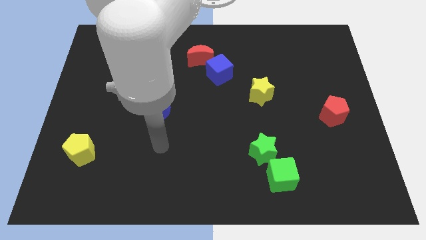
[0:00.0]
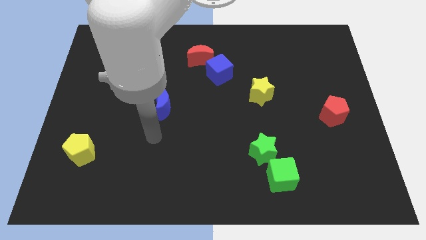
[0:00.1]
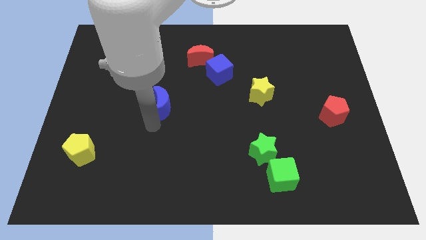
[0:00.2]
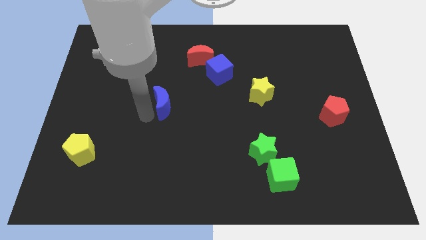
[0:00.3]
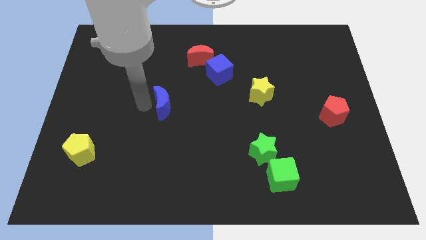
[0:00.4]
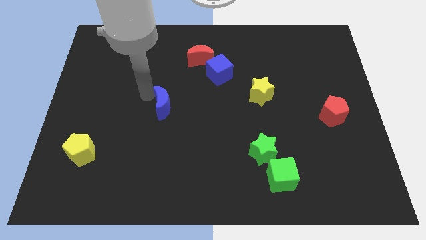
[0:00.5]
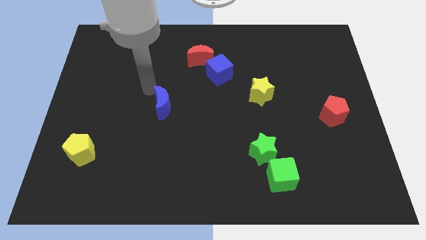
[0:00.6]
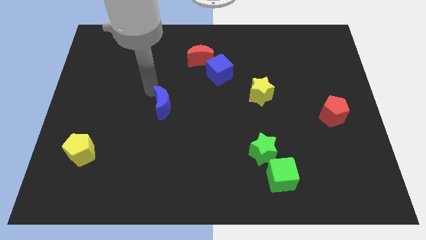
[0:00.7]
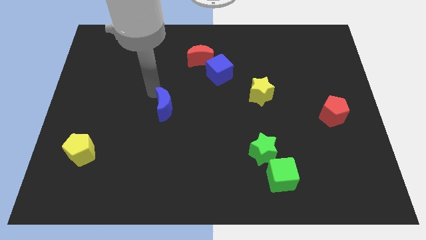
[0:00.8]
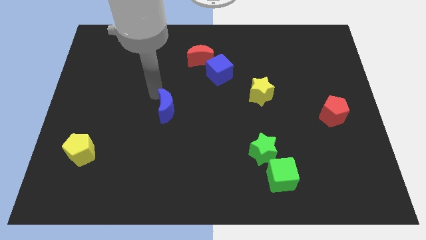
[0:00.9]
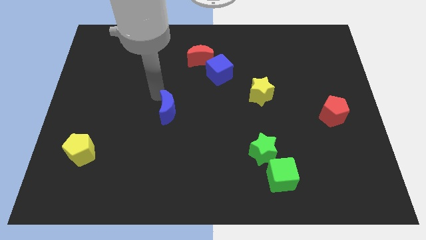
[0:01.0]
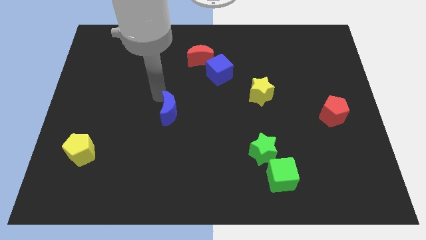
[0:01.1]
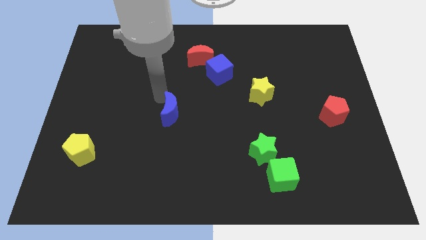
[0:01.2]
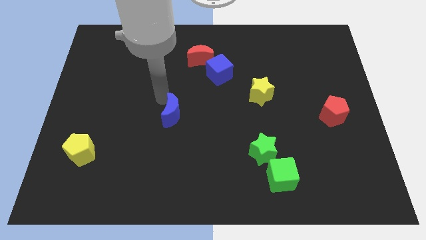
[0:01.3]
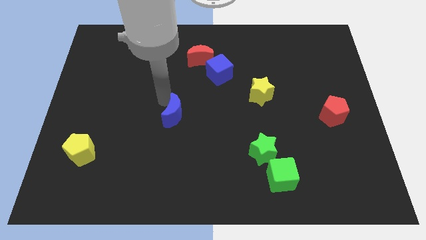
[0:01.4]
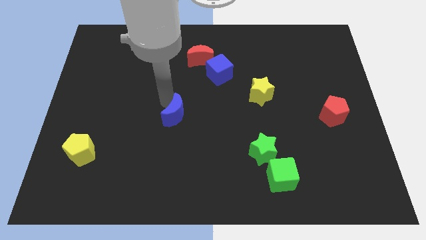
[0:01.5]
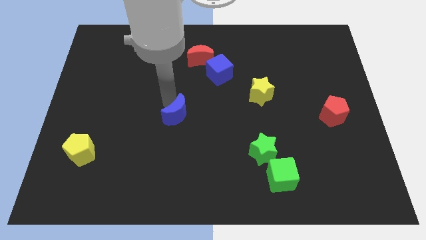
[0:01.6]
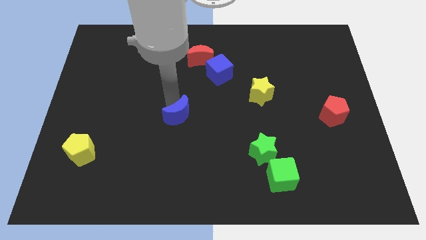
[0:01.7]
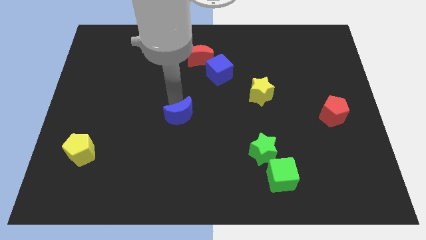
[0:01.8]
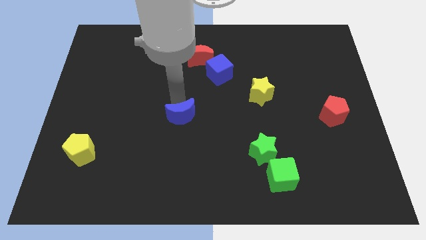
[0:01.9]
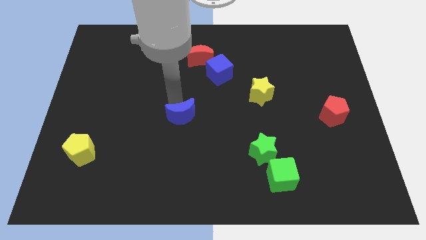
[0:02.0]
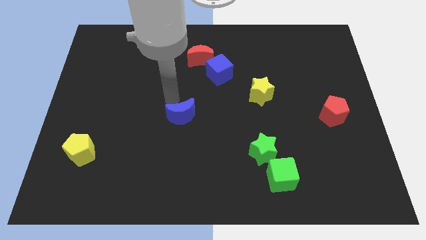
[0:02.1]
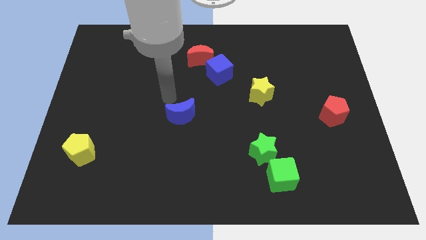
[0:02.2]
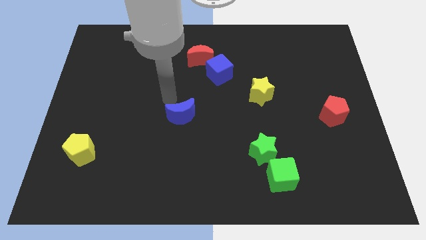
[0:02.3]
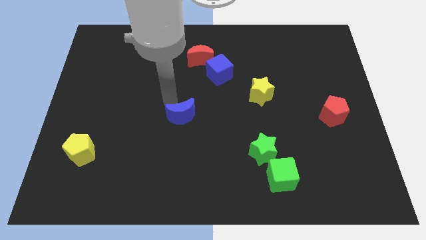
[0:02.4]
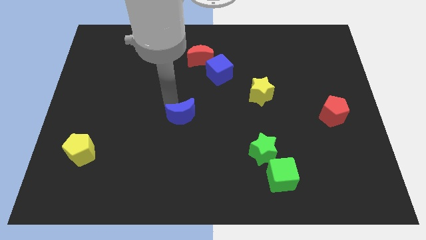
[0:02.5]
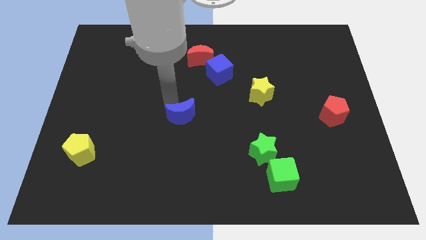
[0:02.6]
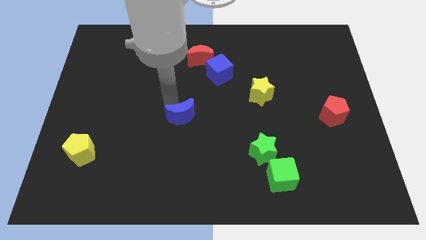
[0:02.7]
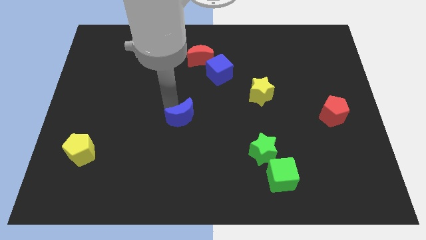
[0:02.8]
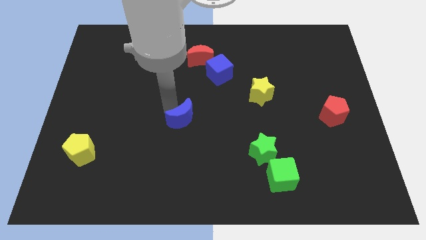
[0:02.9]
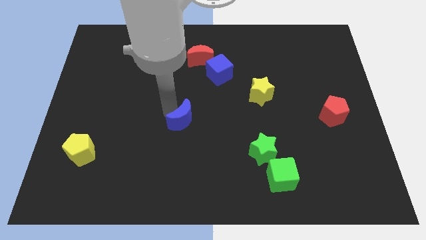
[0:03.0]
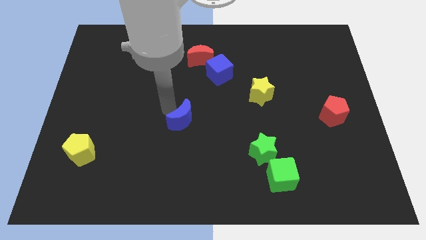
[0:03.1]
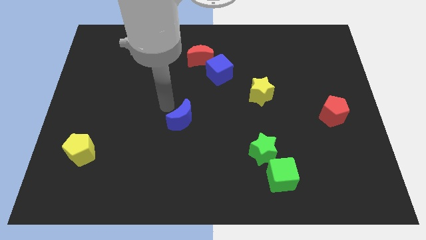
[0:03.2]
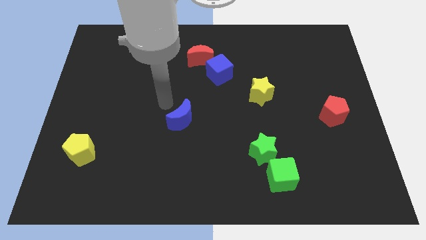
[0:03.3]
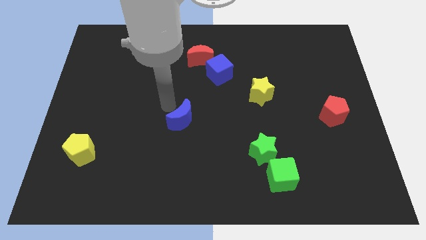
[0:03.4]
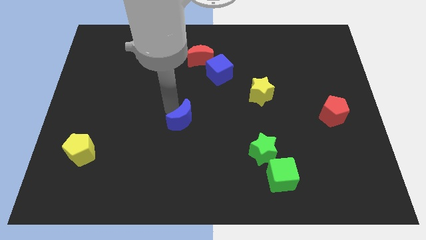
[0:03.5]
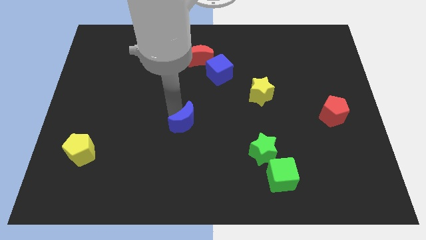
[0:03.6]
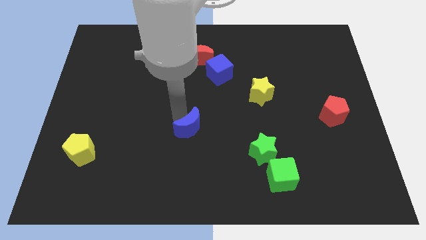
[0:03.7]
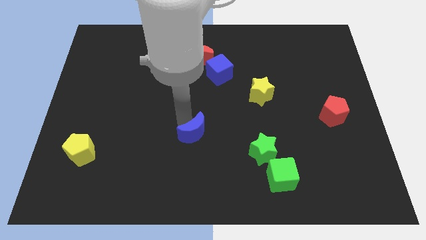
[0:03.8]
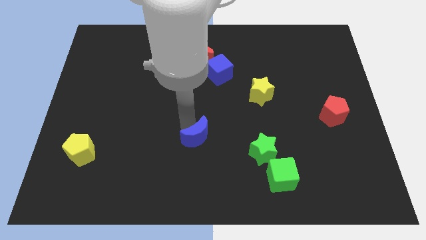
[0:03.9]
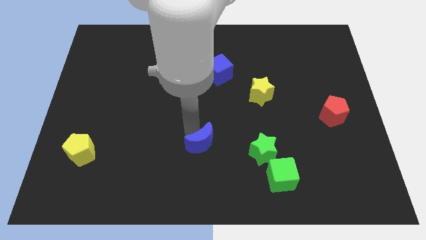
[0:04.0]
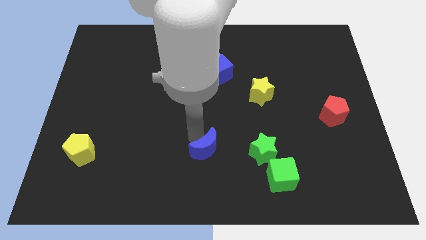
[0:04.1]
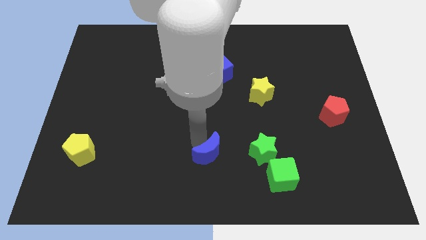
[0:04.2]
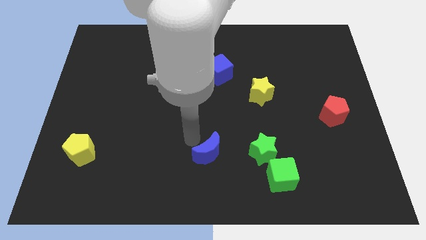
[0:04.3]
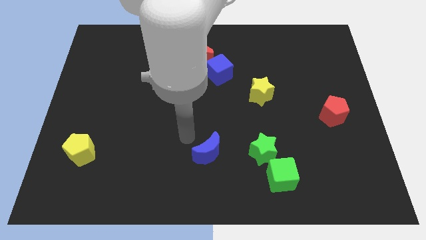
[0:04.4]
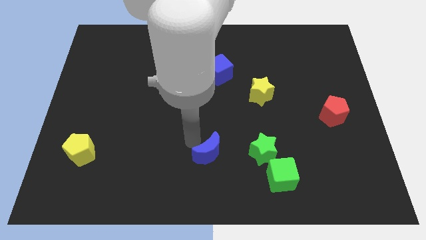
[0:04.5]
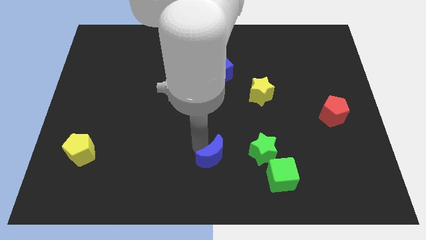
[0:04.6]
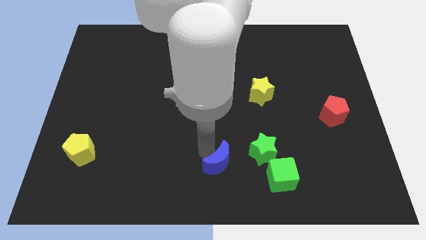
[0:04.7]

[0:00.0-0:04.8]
push the blue moon diagonally down and to the left of the green star

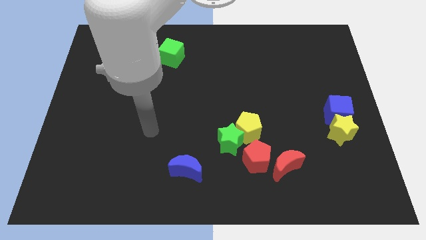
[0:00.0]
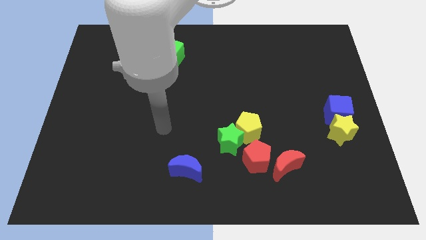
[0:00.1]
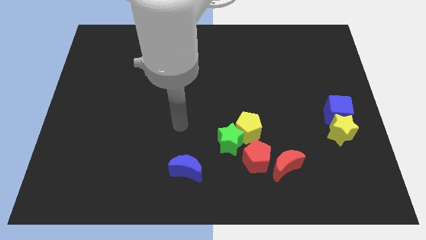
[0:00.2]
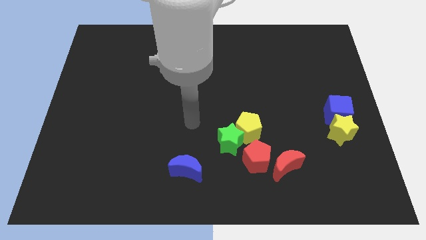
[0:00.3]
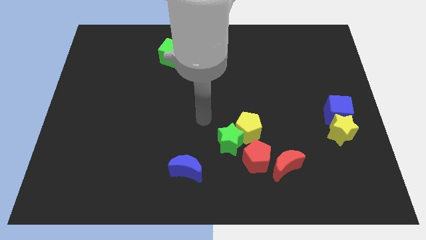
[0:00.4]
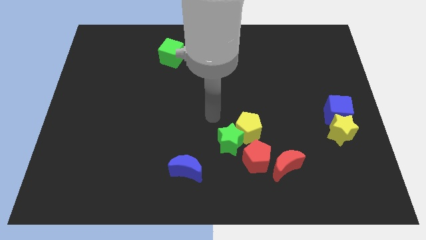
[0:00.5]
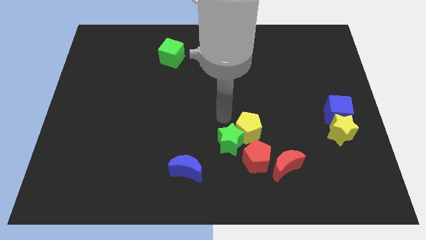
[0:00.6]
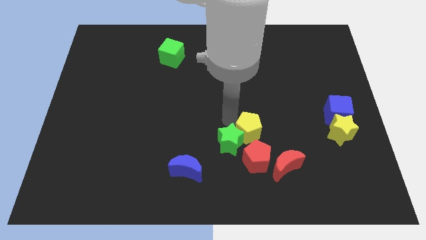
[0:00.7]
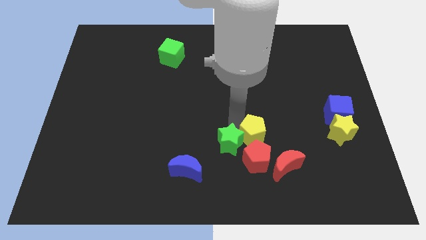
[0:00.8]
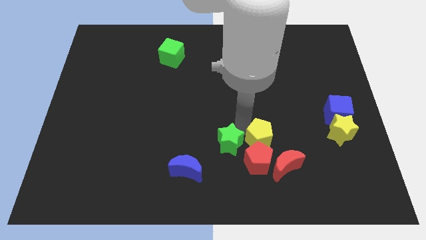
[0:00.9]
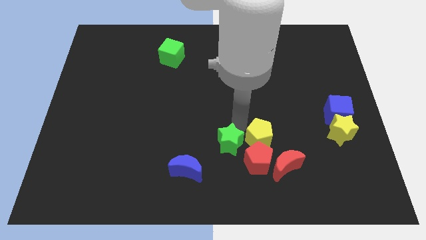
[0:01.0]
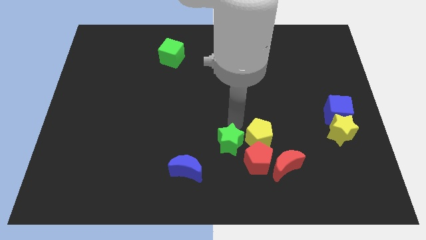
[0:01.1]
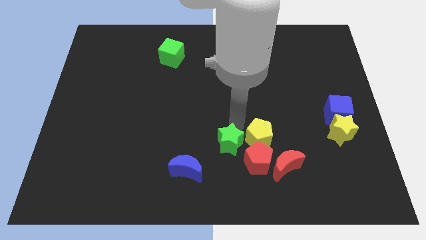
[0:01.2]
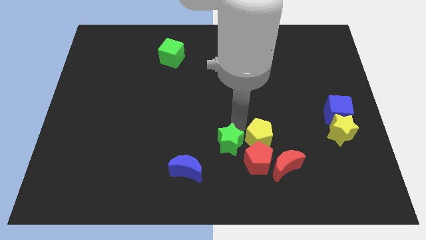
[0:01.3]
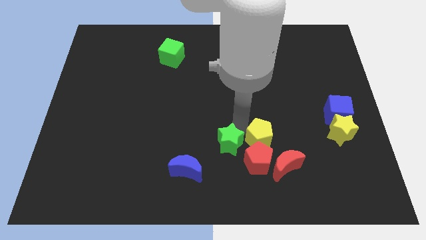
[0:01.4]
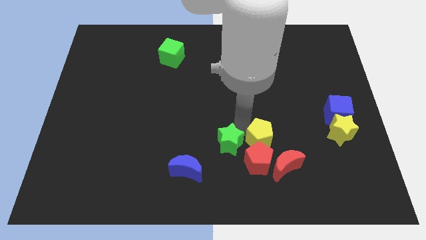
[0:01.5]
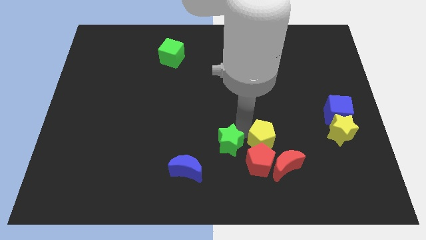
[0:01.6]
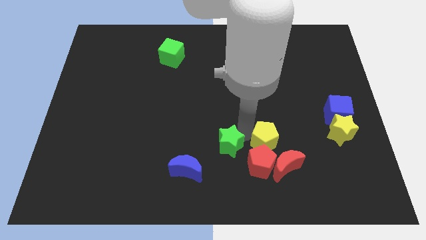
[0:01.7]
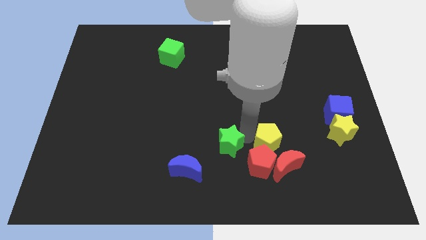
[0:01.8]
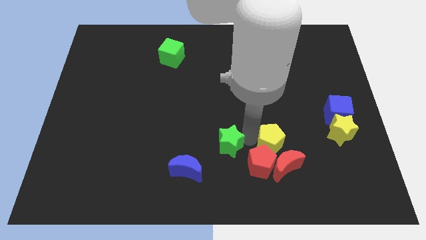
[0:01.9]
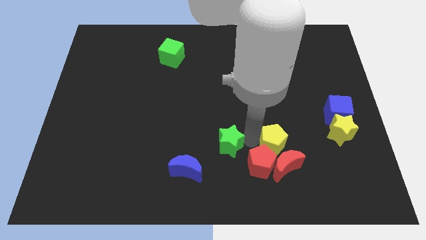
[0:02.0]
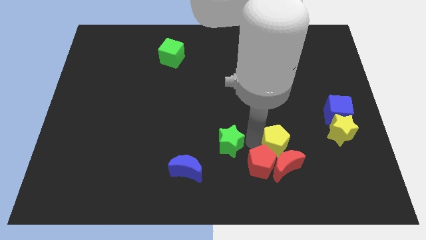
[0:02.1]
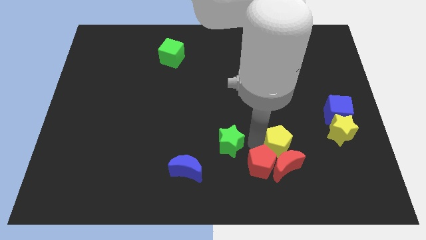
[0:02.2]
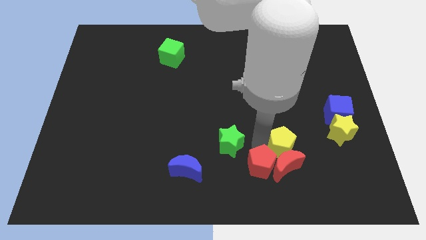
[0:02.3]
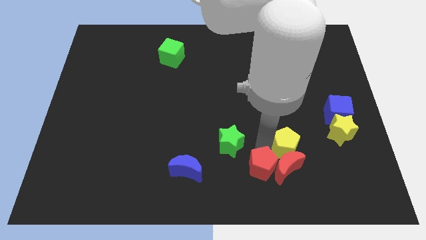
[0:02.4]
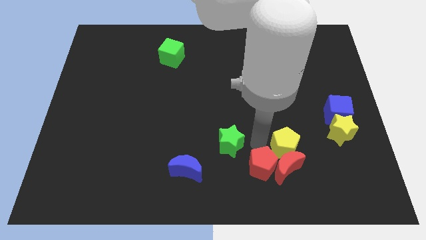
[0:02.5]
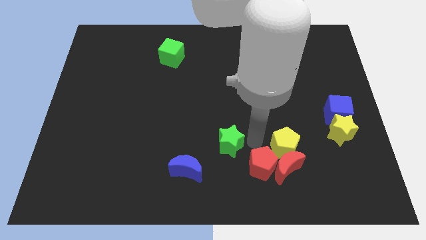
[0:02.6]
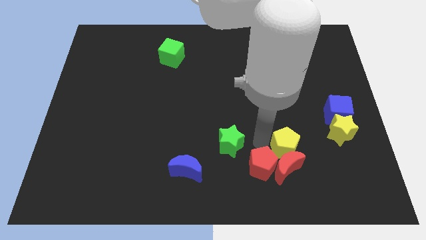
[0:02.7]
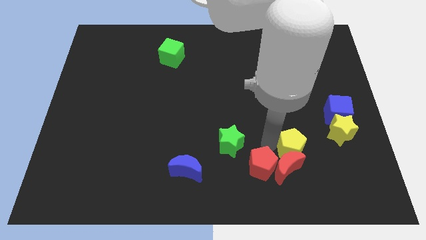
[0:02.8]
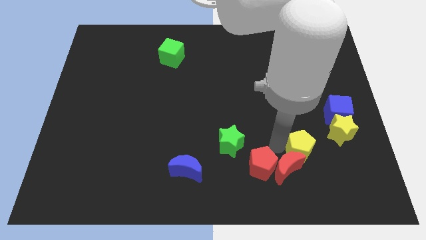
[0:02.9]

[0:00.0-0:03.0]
push the yellow pentagon just right of the red moon
